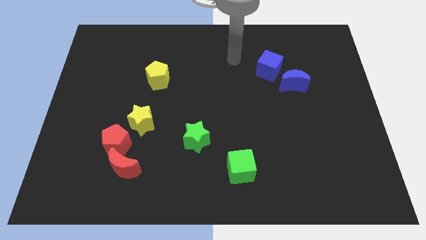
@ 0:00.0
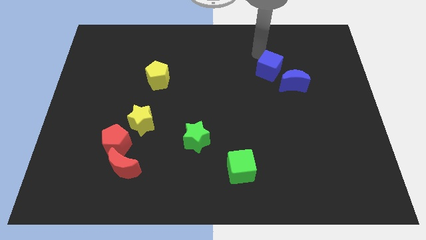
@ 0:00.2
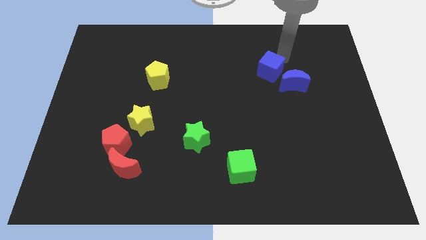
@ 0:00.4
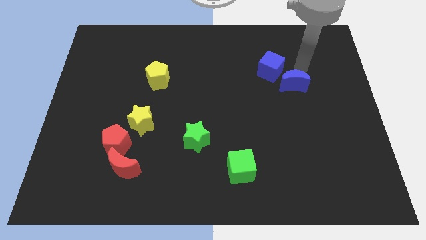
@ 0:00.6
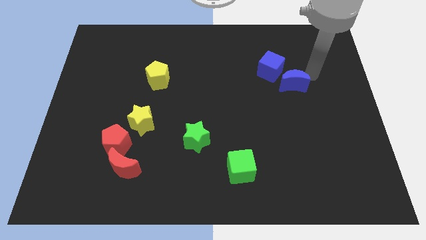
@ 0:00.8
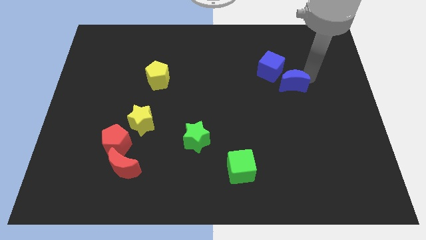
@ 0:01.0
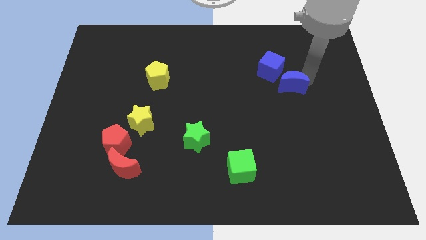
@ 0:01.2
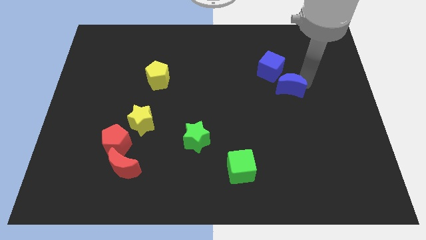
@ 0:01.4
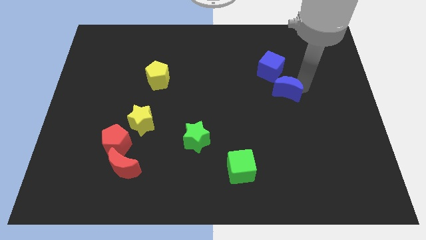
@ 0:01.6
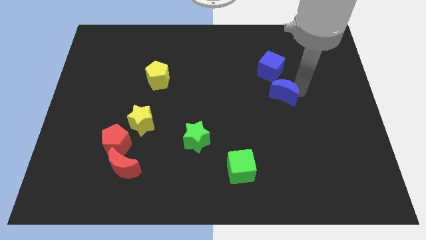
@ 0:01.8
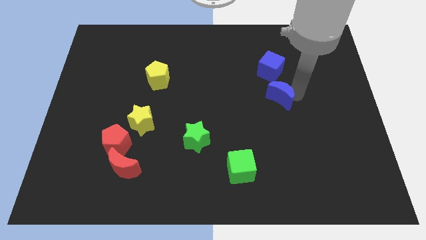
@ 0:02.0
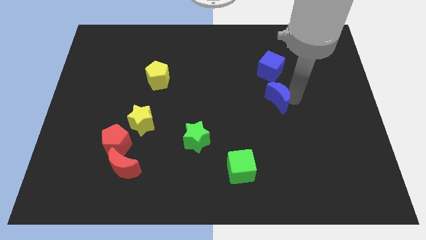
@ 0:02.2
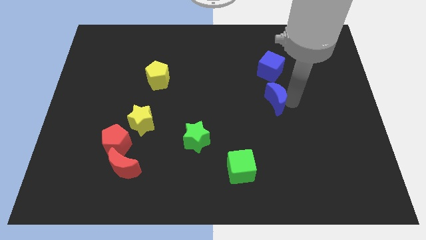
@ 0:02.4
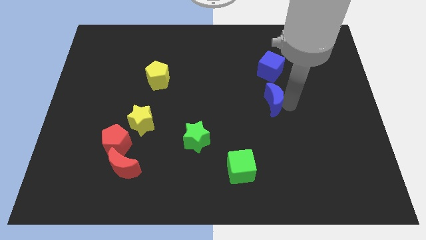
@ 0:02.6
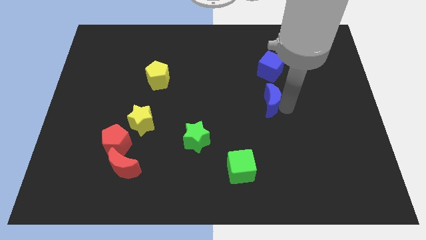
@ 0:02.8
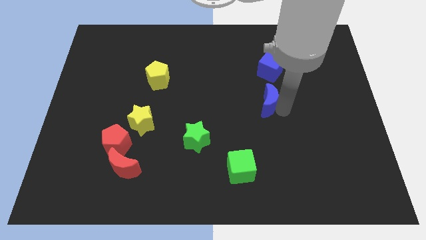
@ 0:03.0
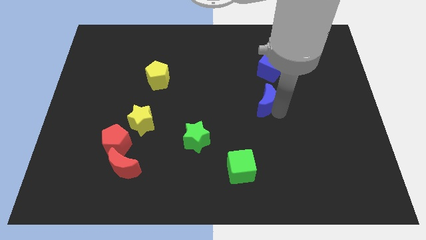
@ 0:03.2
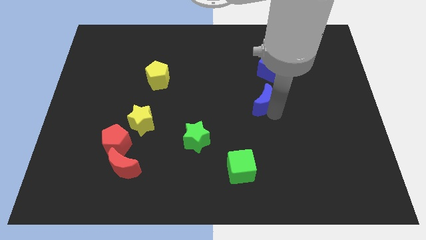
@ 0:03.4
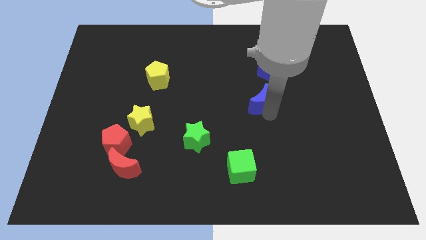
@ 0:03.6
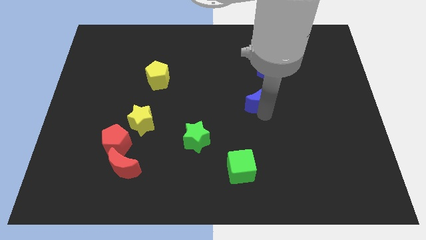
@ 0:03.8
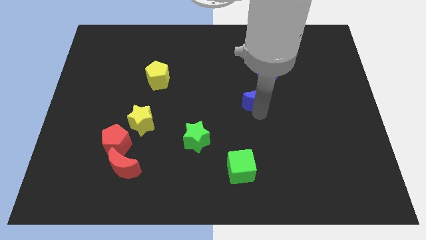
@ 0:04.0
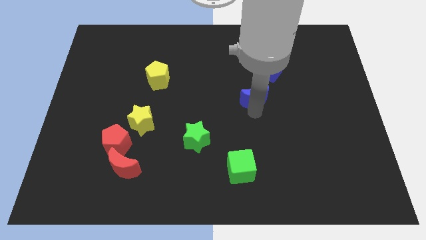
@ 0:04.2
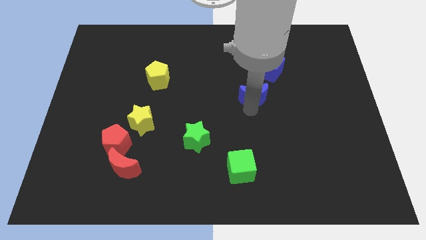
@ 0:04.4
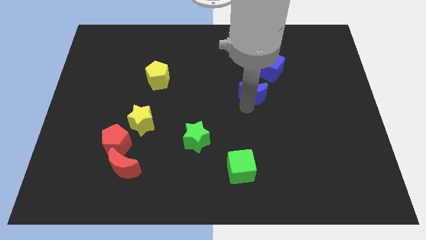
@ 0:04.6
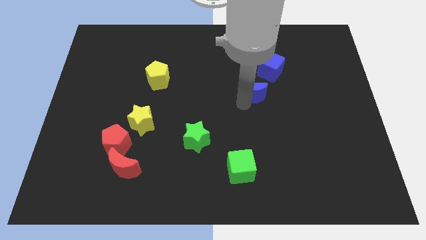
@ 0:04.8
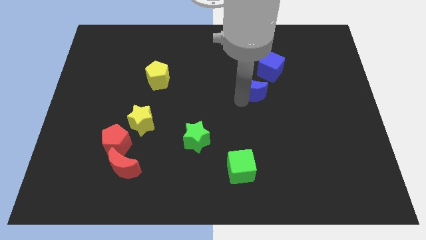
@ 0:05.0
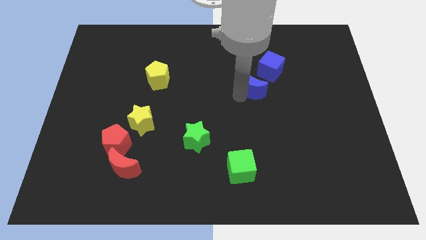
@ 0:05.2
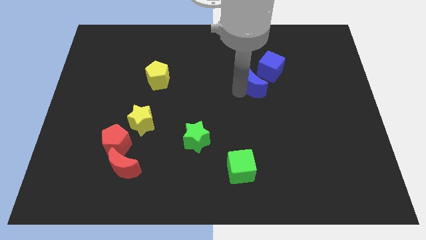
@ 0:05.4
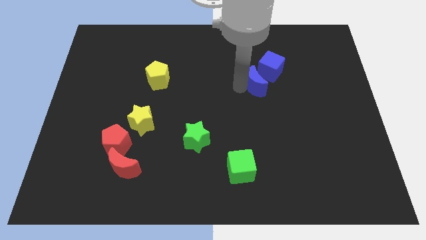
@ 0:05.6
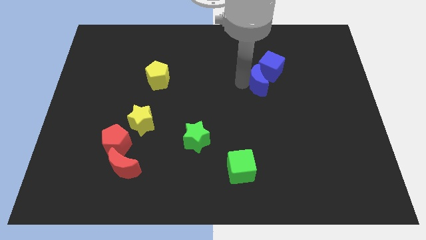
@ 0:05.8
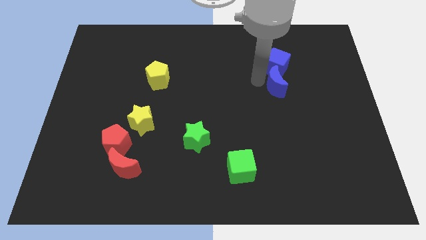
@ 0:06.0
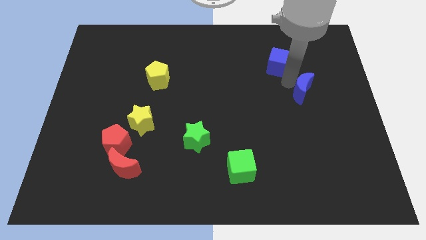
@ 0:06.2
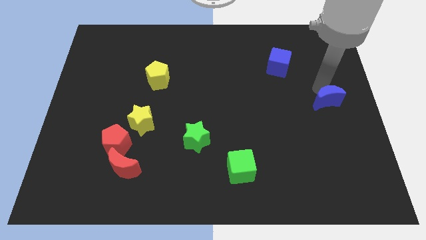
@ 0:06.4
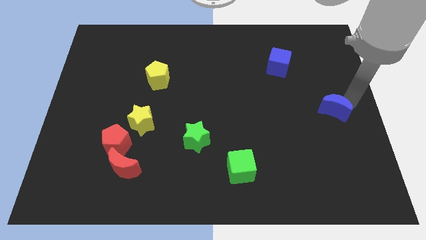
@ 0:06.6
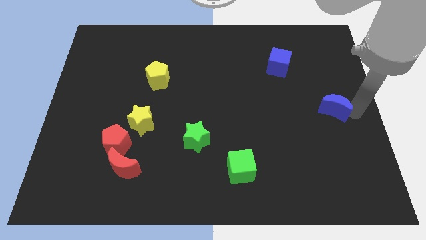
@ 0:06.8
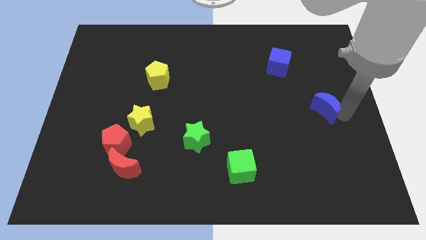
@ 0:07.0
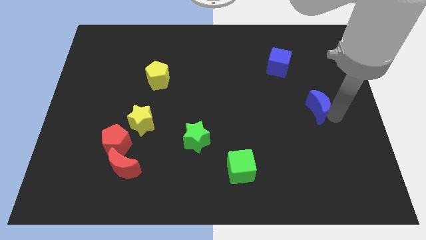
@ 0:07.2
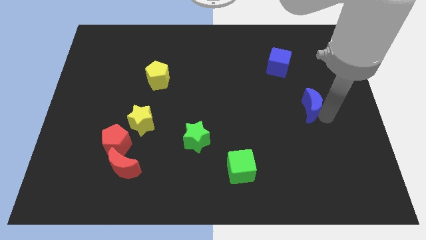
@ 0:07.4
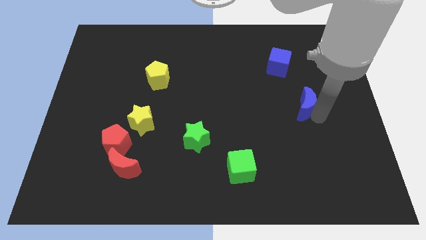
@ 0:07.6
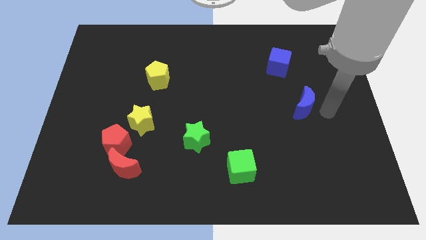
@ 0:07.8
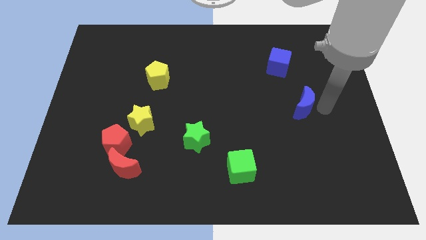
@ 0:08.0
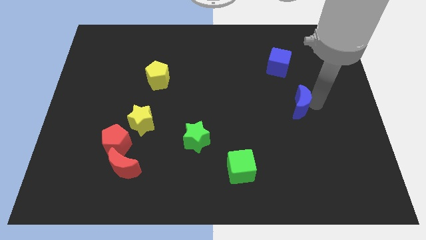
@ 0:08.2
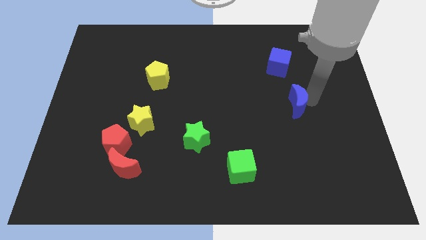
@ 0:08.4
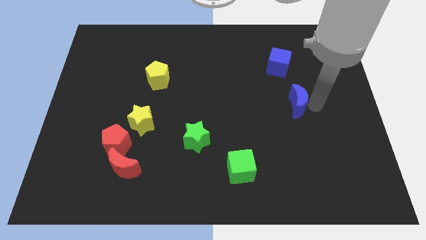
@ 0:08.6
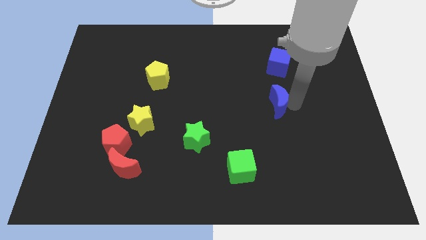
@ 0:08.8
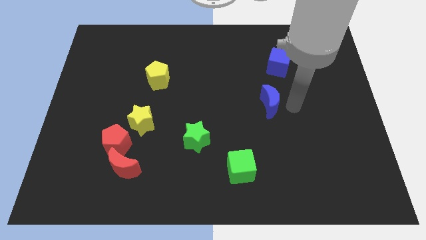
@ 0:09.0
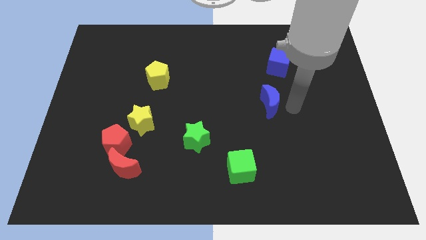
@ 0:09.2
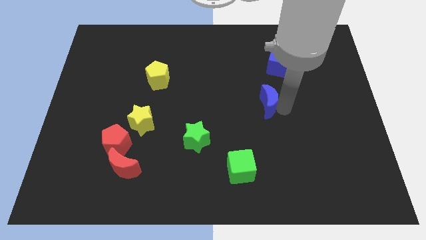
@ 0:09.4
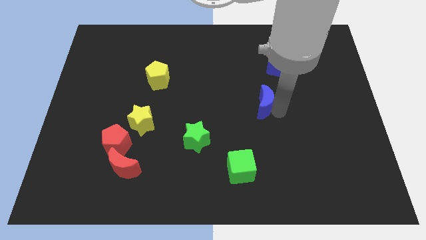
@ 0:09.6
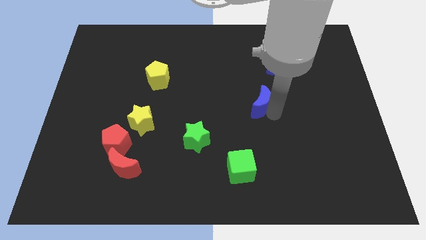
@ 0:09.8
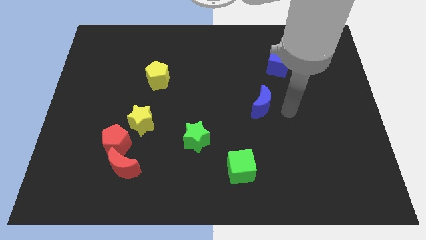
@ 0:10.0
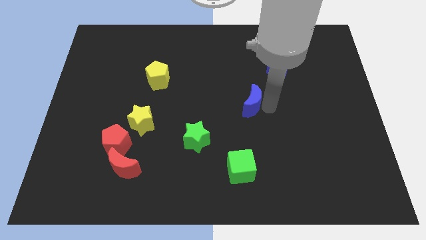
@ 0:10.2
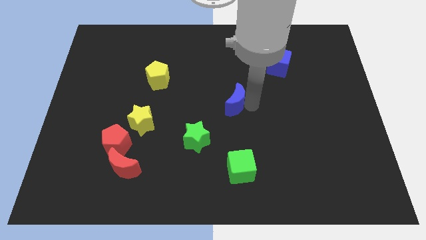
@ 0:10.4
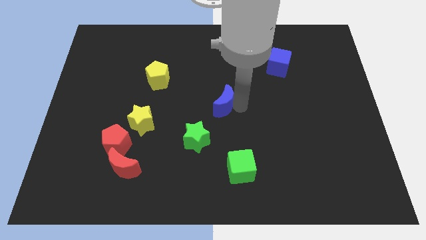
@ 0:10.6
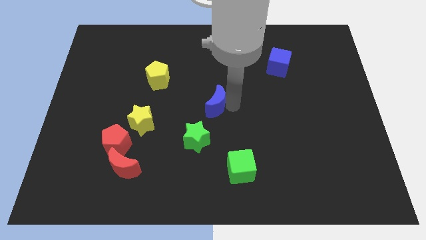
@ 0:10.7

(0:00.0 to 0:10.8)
move the blue moon to the top side of the green star

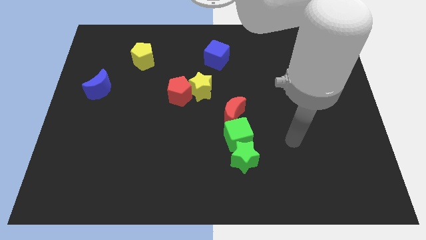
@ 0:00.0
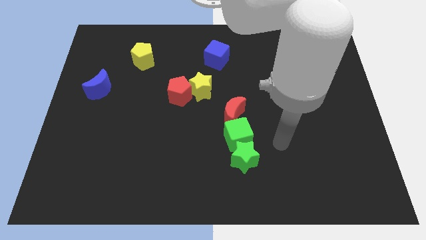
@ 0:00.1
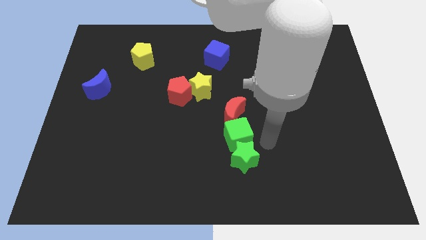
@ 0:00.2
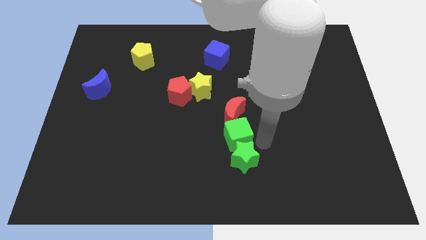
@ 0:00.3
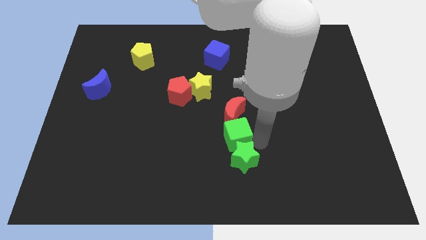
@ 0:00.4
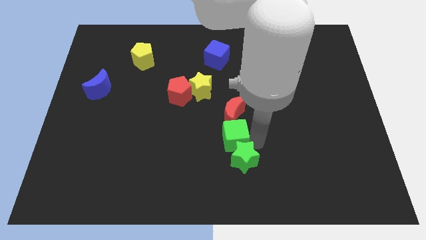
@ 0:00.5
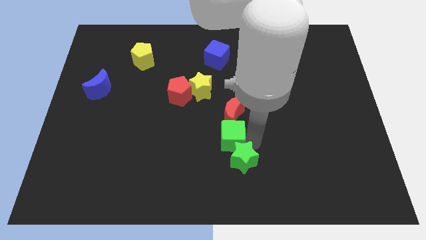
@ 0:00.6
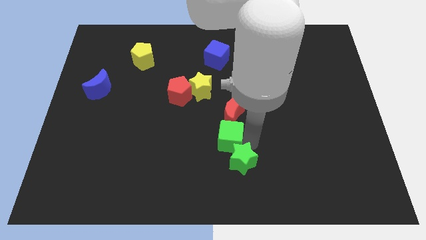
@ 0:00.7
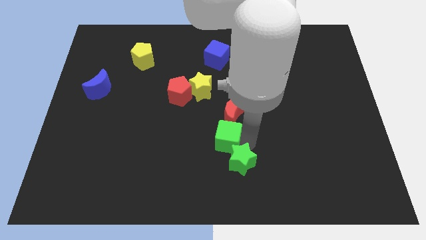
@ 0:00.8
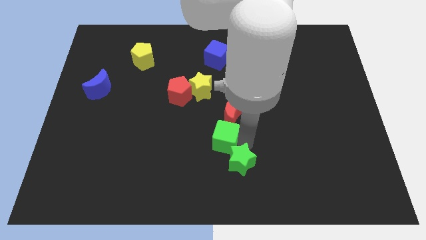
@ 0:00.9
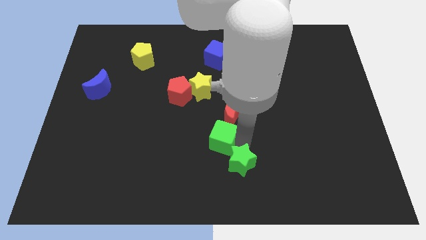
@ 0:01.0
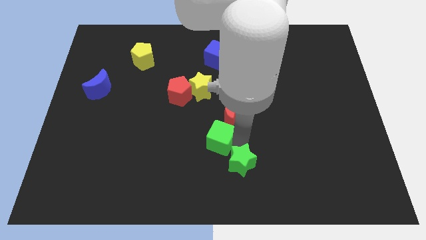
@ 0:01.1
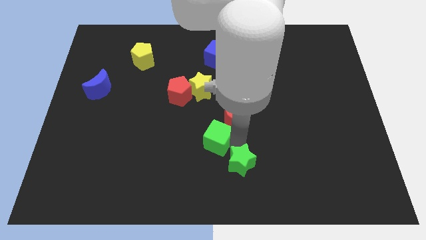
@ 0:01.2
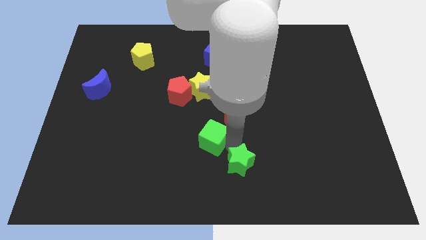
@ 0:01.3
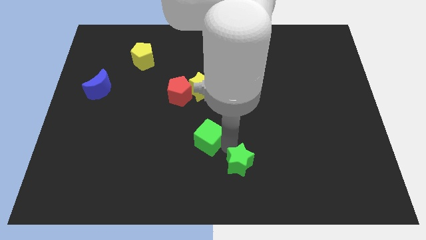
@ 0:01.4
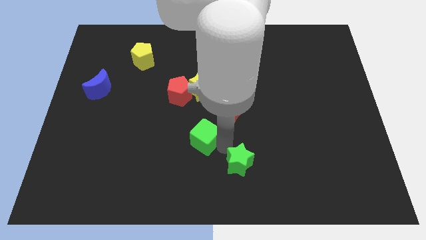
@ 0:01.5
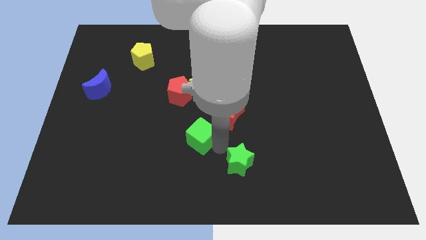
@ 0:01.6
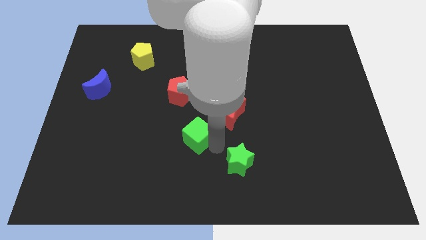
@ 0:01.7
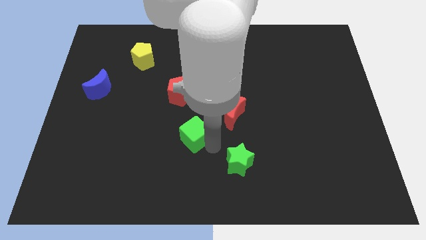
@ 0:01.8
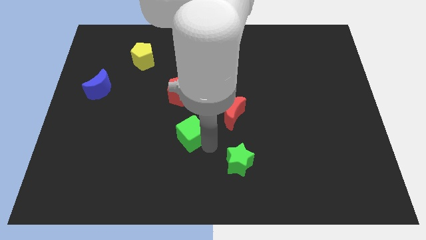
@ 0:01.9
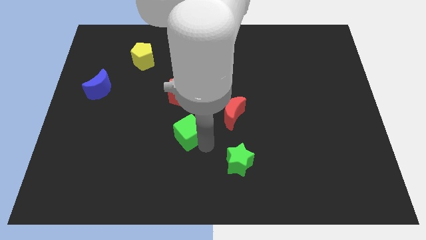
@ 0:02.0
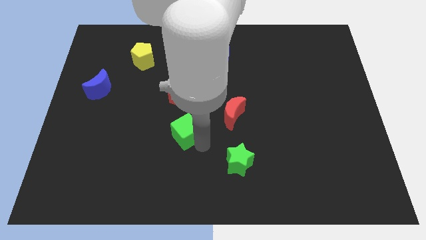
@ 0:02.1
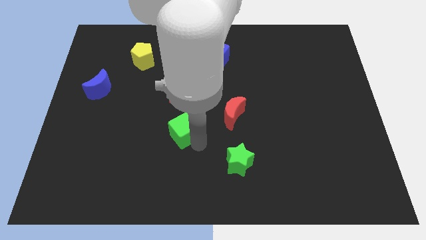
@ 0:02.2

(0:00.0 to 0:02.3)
move the green cube to the left side of the red moon
